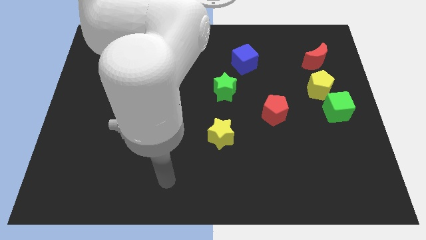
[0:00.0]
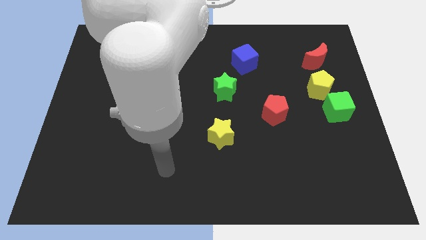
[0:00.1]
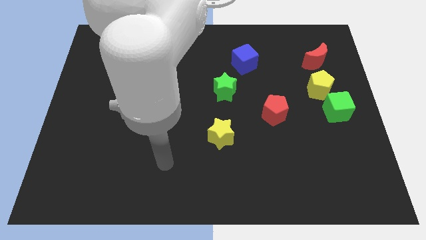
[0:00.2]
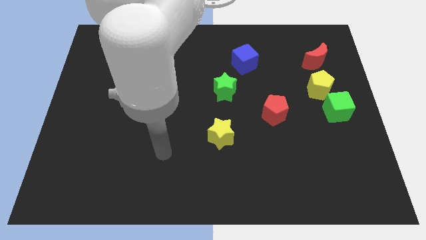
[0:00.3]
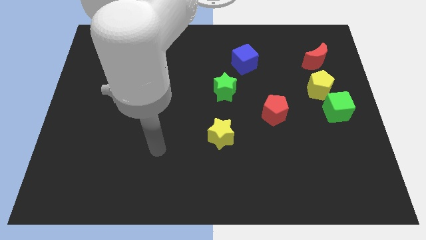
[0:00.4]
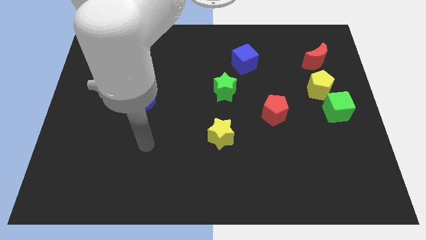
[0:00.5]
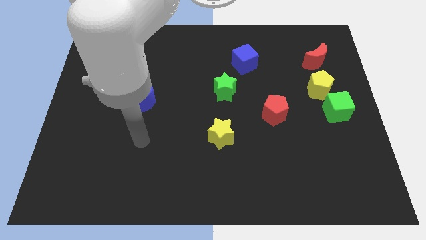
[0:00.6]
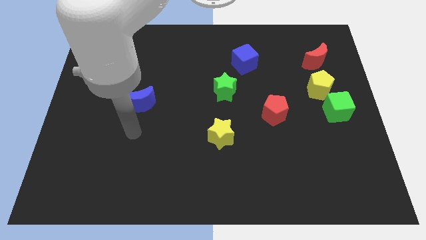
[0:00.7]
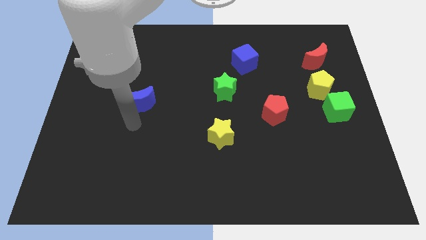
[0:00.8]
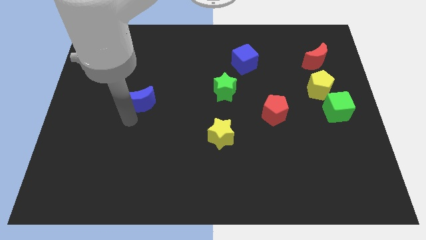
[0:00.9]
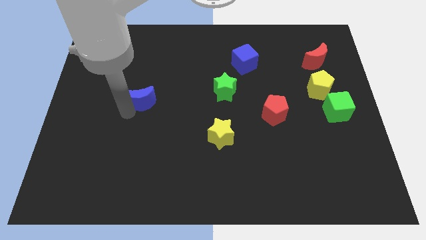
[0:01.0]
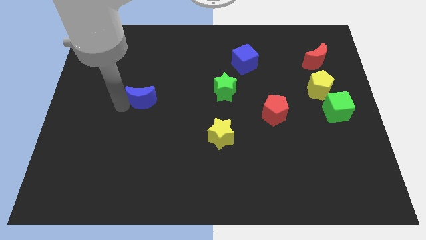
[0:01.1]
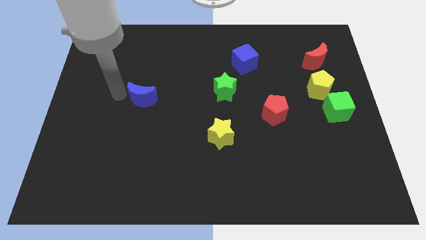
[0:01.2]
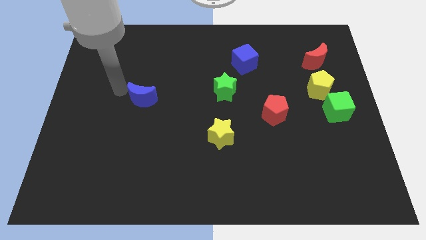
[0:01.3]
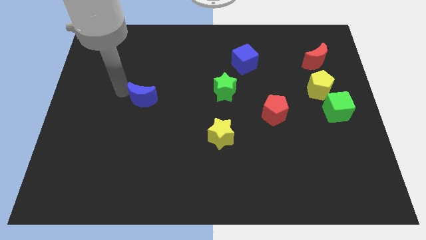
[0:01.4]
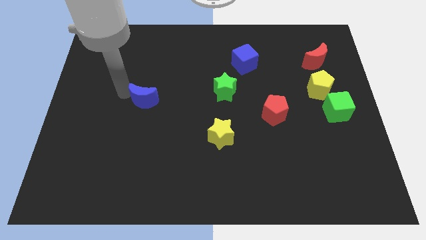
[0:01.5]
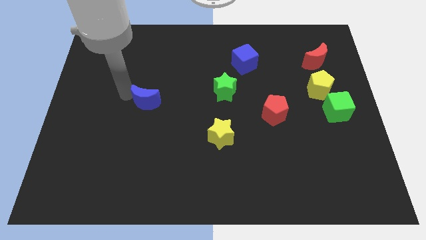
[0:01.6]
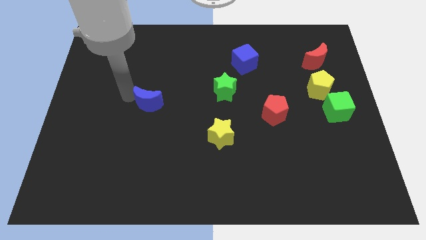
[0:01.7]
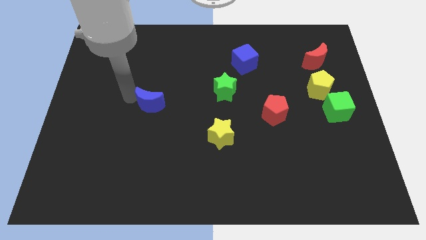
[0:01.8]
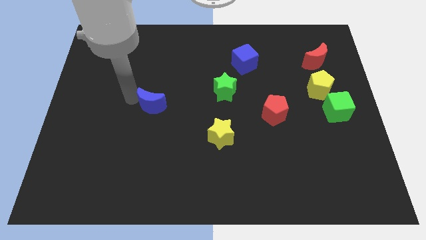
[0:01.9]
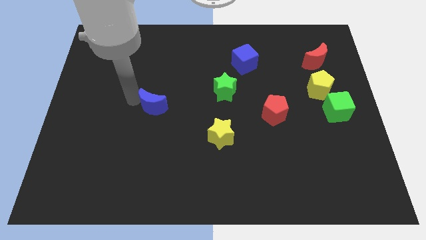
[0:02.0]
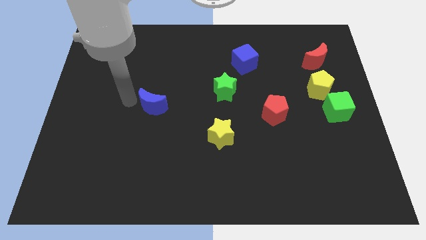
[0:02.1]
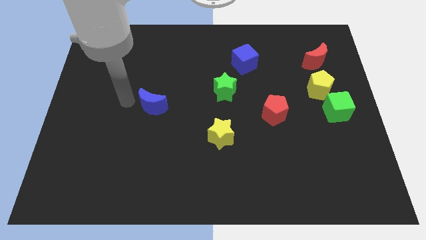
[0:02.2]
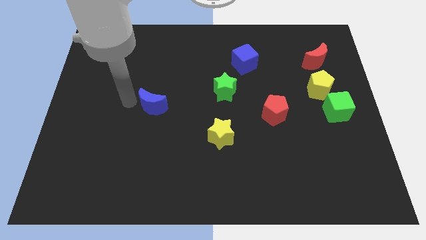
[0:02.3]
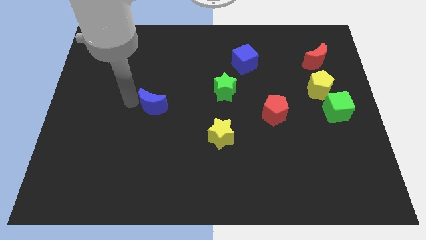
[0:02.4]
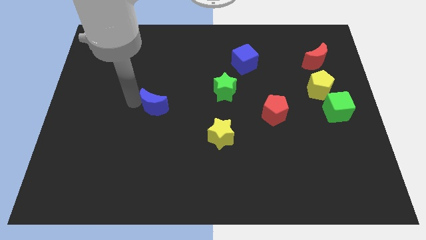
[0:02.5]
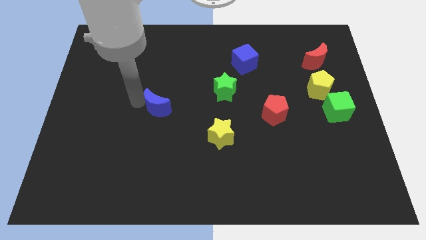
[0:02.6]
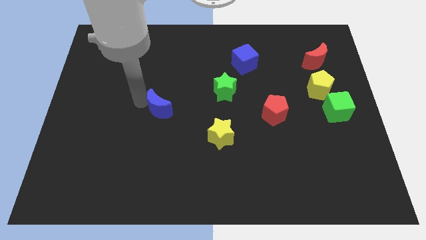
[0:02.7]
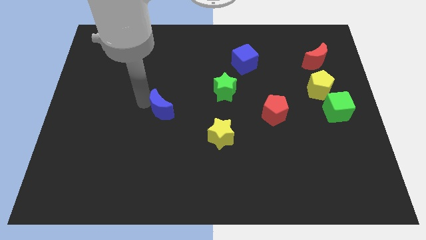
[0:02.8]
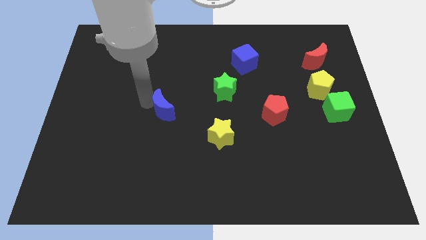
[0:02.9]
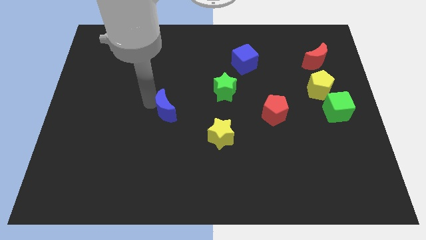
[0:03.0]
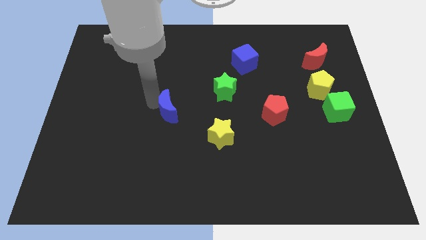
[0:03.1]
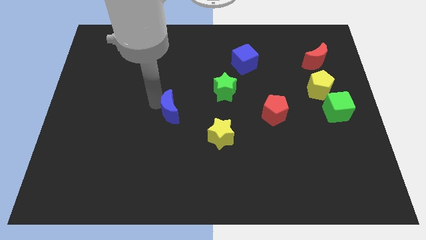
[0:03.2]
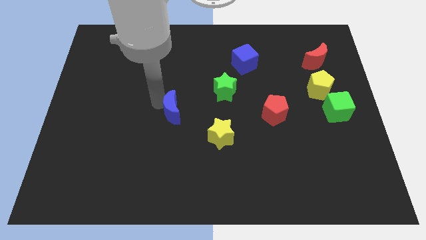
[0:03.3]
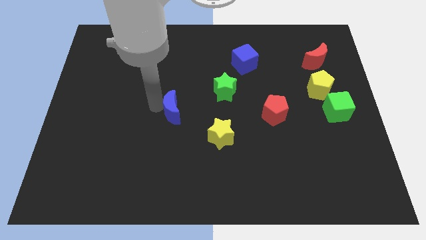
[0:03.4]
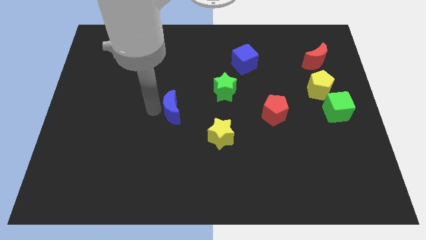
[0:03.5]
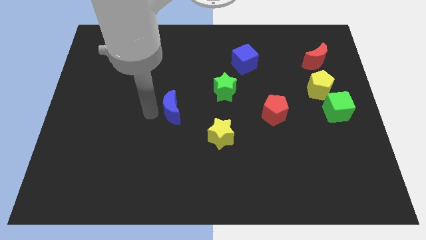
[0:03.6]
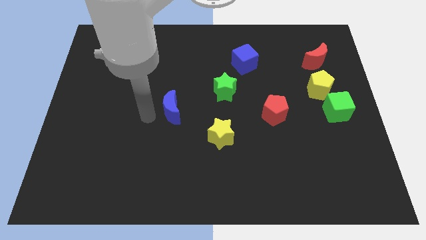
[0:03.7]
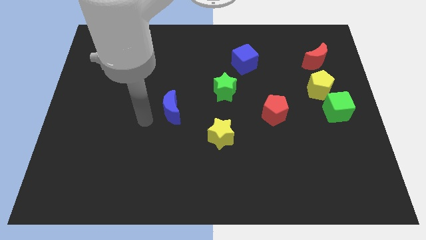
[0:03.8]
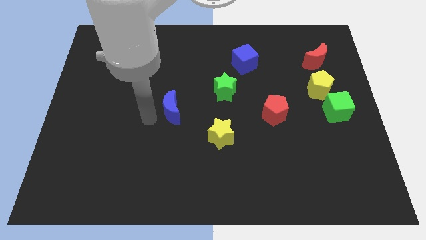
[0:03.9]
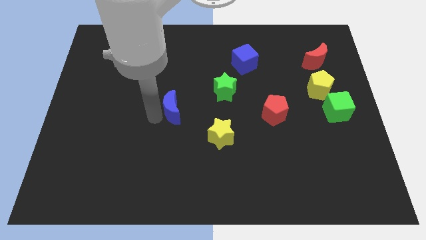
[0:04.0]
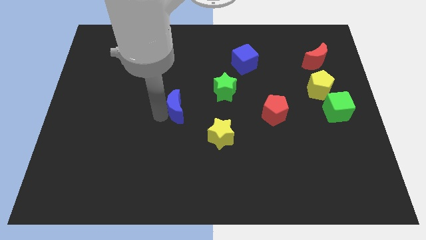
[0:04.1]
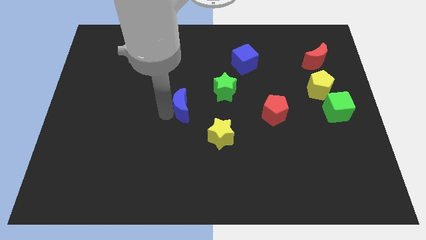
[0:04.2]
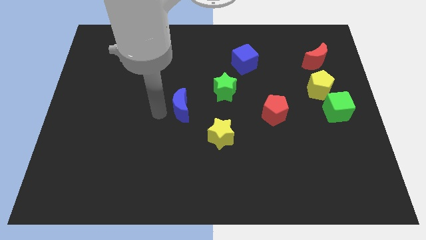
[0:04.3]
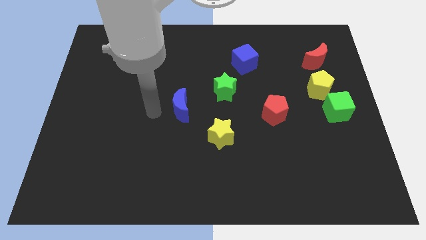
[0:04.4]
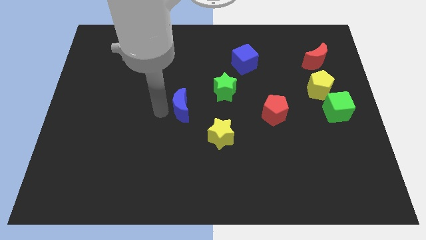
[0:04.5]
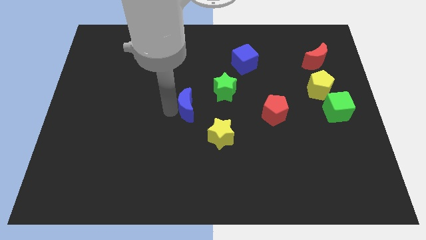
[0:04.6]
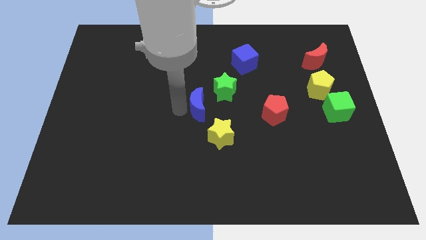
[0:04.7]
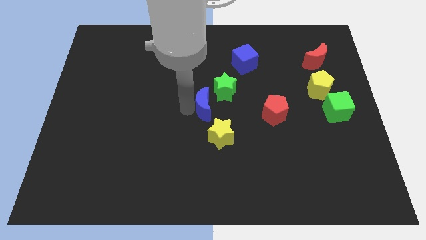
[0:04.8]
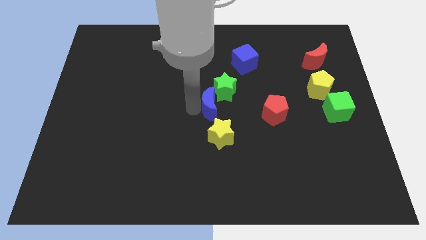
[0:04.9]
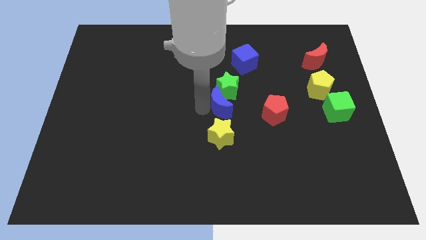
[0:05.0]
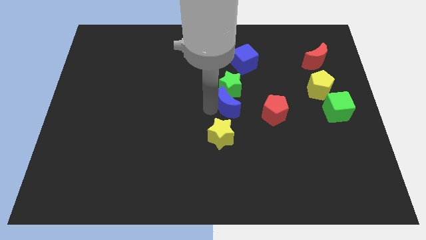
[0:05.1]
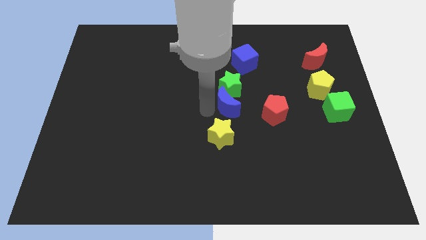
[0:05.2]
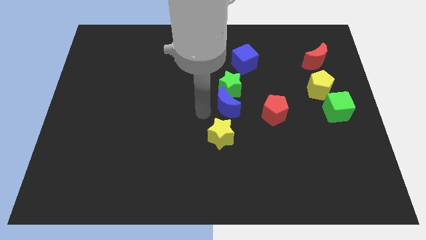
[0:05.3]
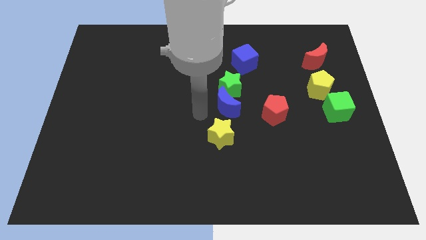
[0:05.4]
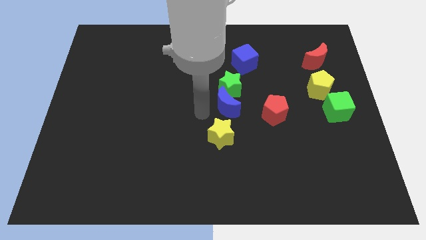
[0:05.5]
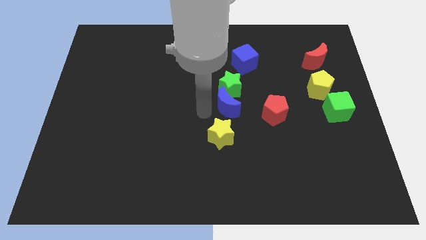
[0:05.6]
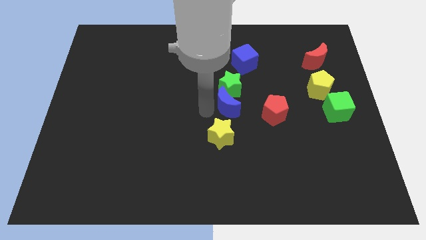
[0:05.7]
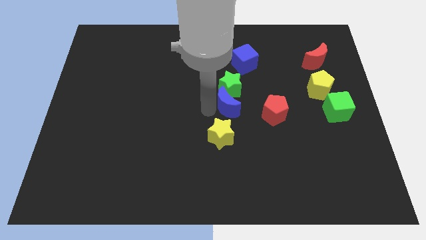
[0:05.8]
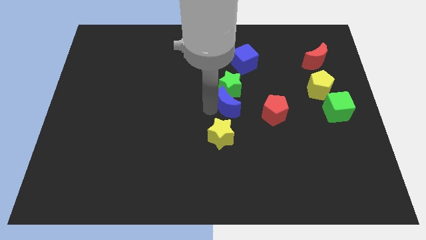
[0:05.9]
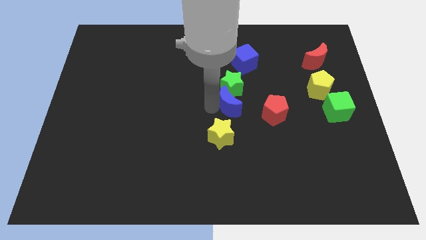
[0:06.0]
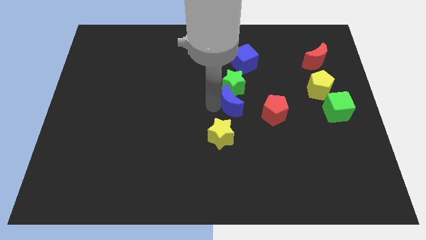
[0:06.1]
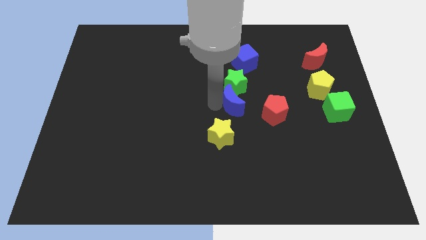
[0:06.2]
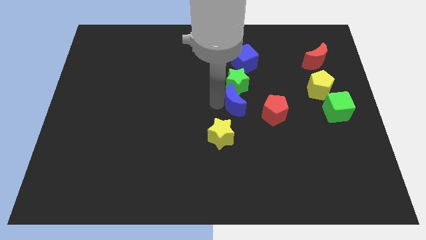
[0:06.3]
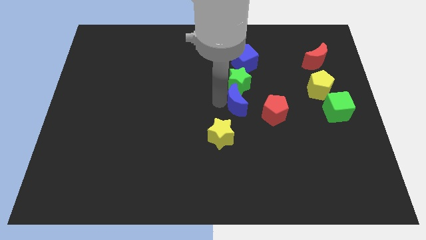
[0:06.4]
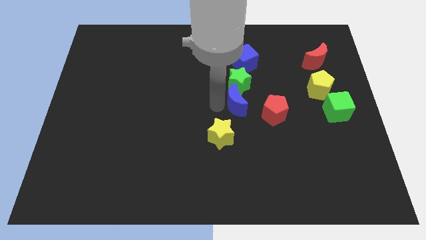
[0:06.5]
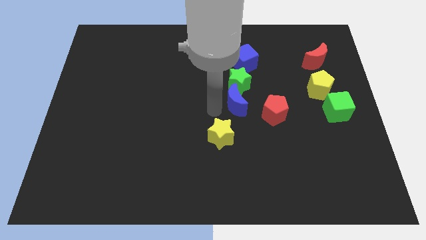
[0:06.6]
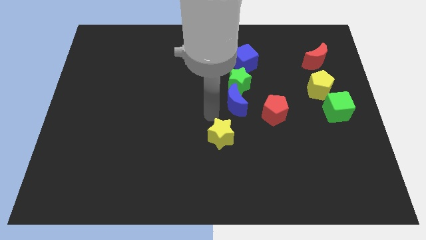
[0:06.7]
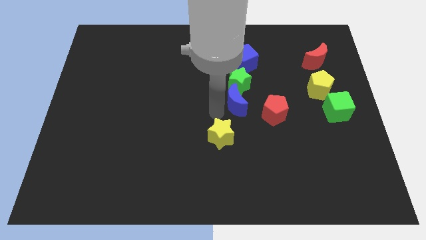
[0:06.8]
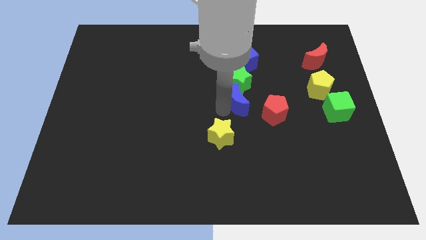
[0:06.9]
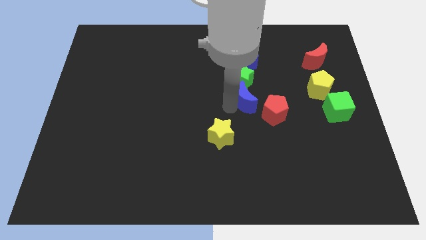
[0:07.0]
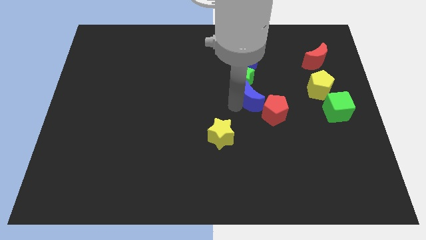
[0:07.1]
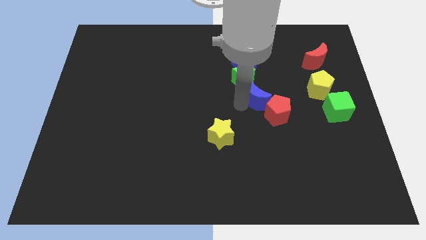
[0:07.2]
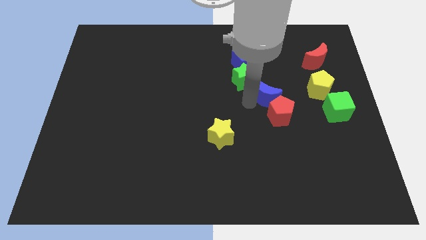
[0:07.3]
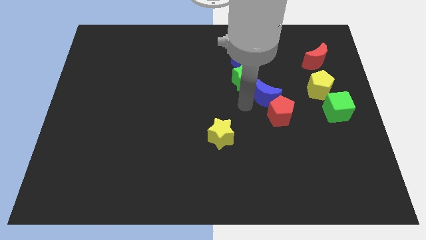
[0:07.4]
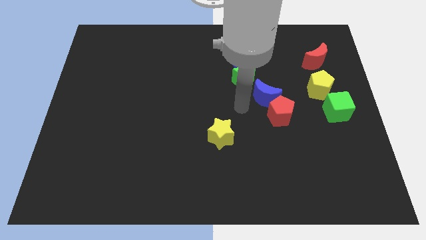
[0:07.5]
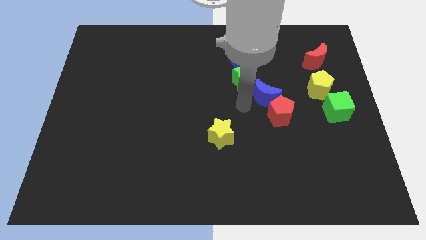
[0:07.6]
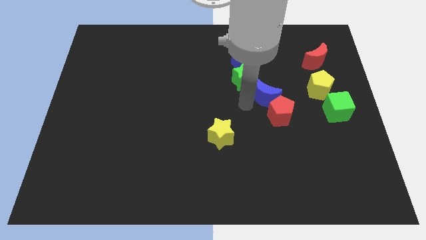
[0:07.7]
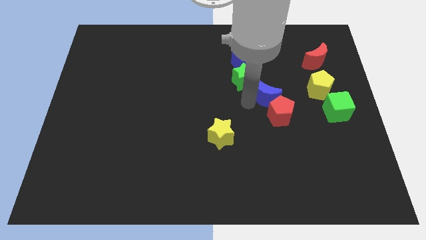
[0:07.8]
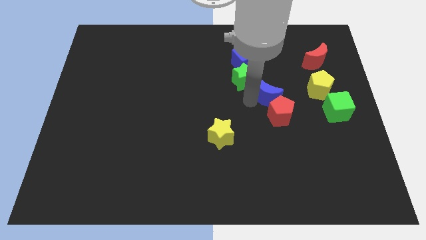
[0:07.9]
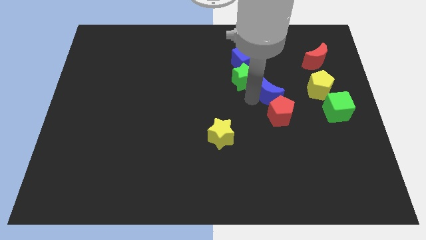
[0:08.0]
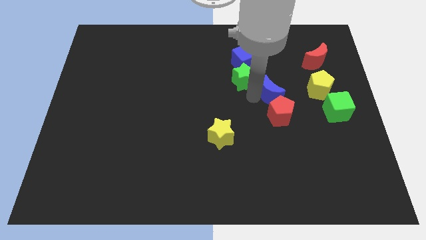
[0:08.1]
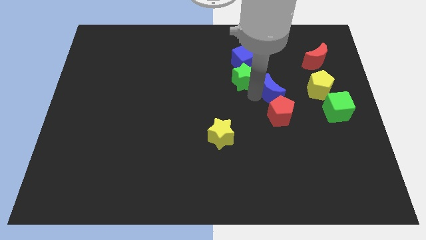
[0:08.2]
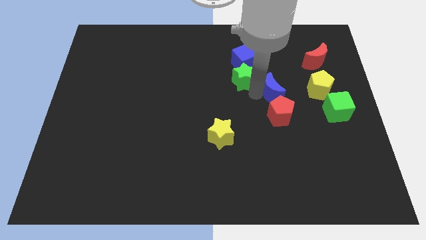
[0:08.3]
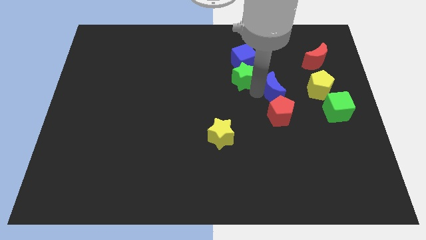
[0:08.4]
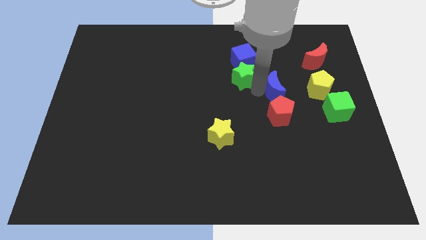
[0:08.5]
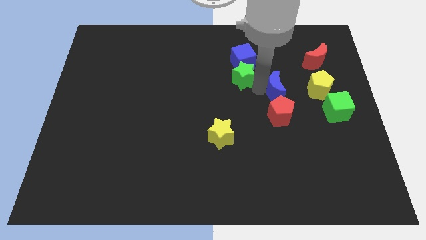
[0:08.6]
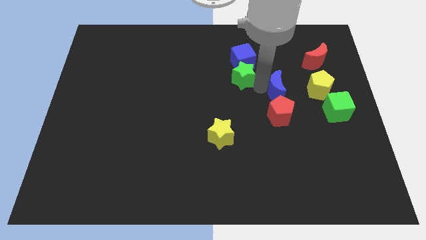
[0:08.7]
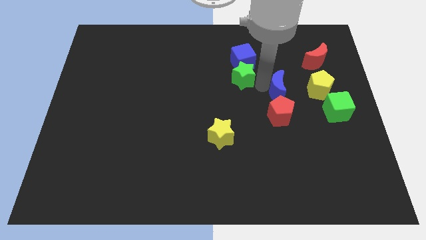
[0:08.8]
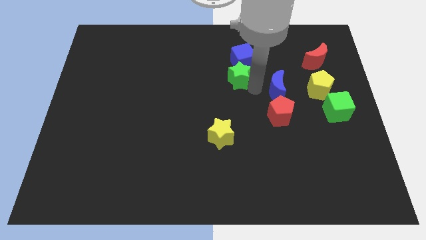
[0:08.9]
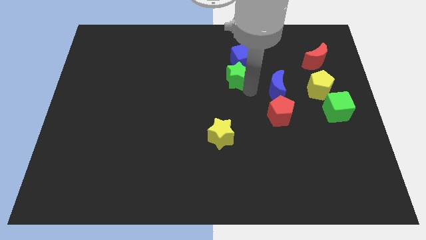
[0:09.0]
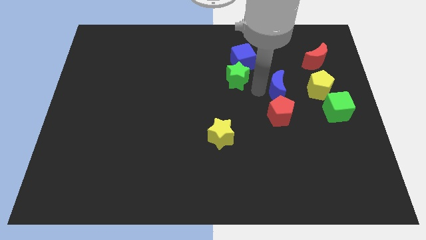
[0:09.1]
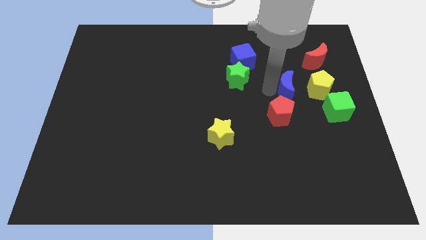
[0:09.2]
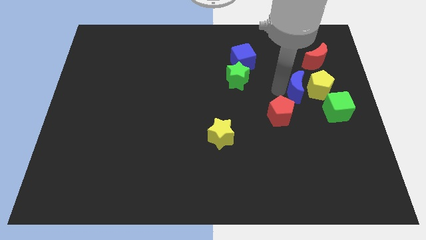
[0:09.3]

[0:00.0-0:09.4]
move the blue moon towards the yellow pentagon
